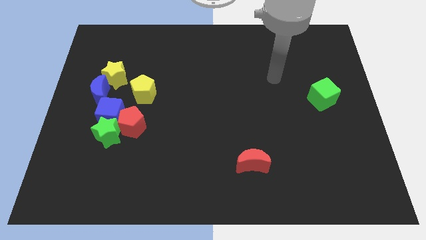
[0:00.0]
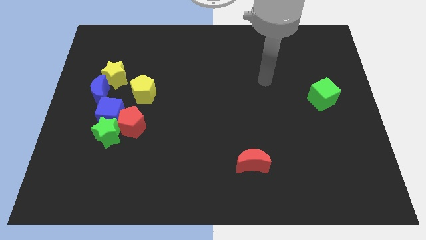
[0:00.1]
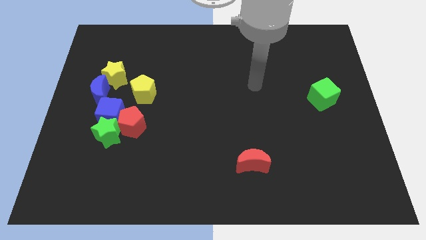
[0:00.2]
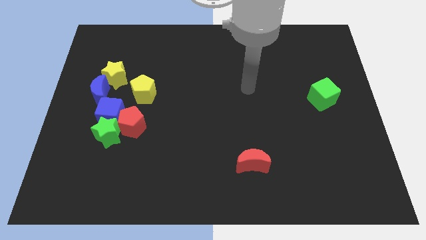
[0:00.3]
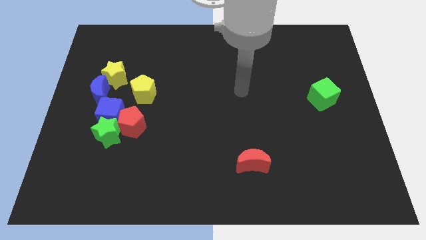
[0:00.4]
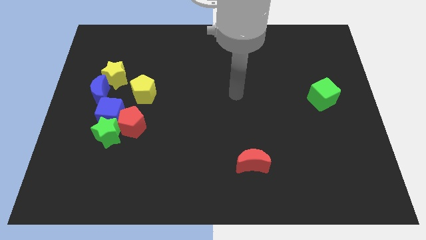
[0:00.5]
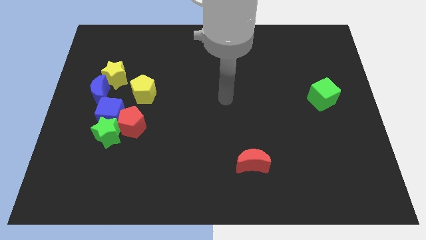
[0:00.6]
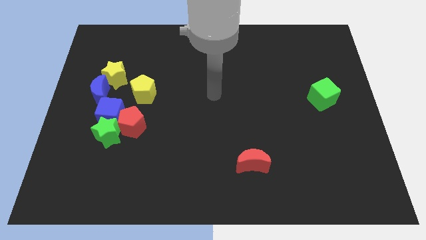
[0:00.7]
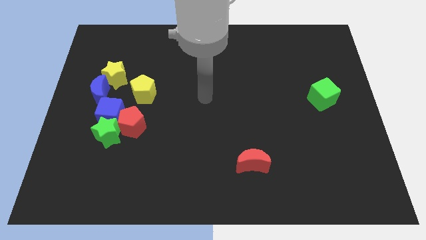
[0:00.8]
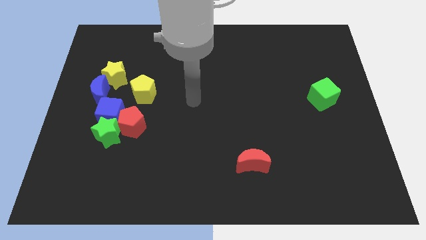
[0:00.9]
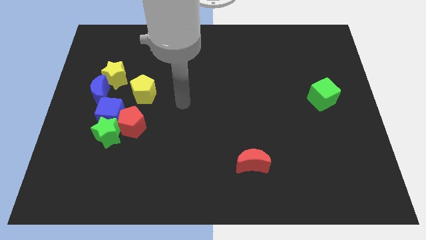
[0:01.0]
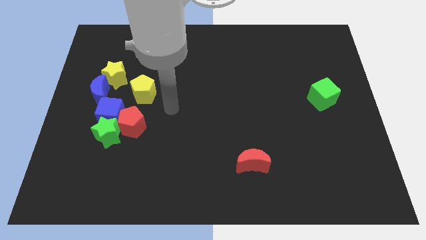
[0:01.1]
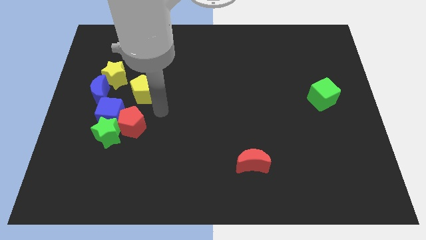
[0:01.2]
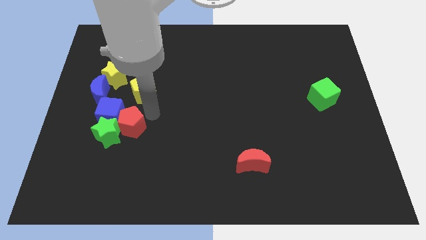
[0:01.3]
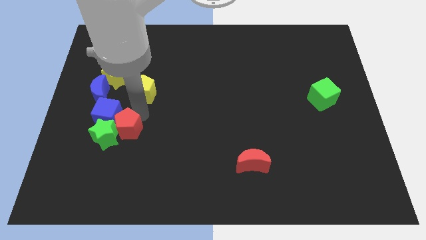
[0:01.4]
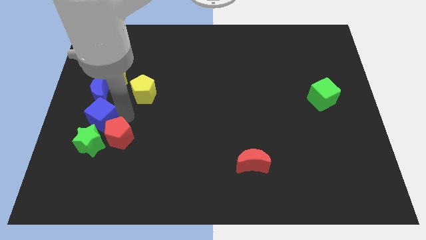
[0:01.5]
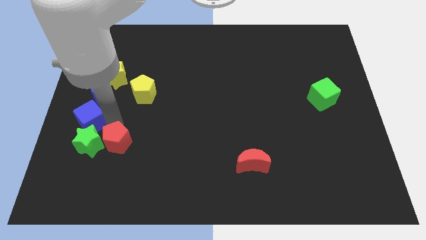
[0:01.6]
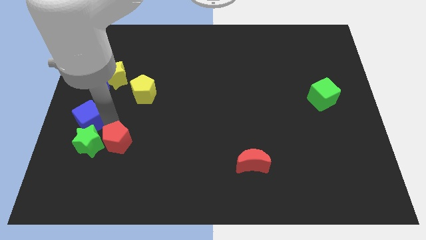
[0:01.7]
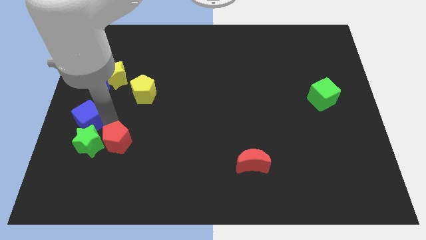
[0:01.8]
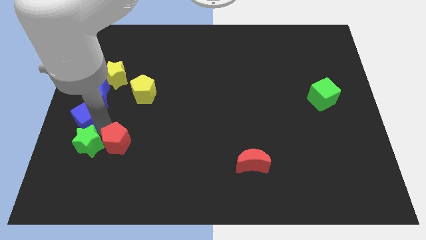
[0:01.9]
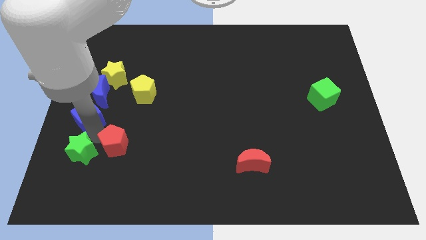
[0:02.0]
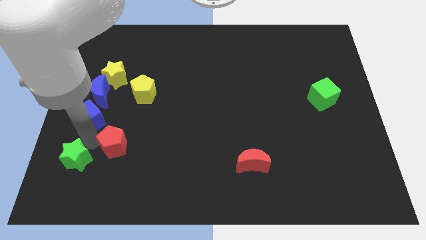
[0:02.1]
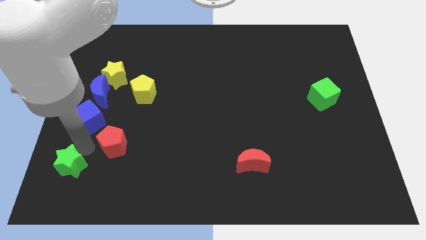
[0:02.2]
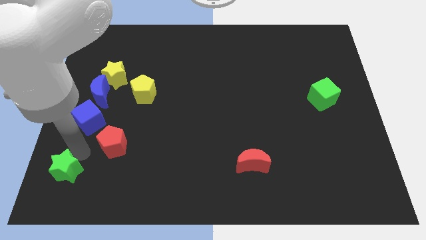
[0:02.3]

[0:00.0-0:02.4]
pull the green star apart from the blue cube and red pentagon

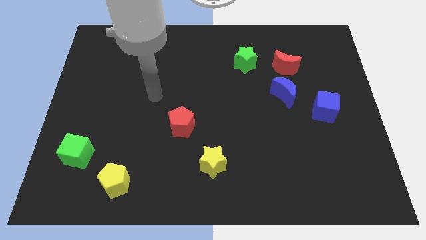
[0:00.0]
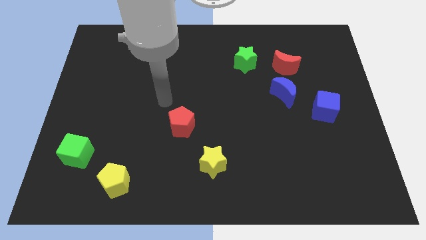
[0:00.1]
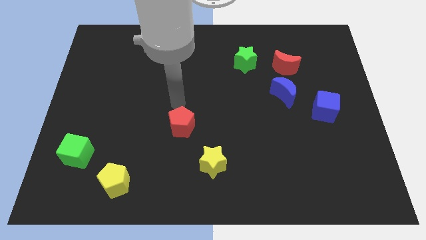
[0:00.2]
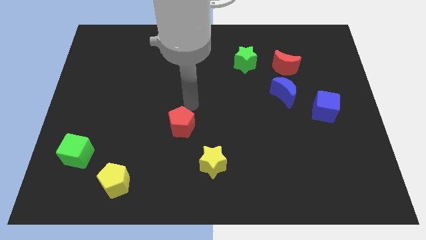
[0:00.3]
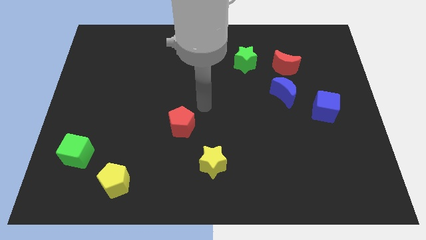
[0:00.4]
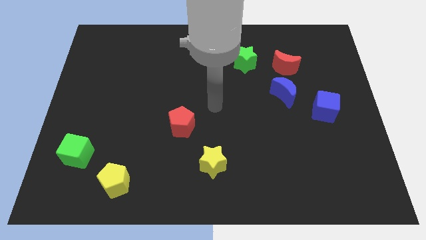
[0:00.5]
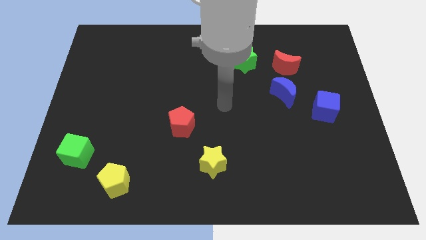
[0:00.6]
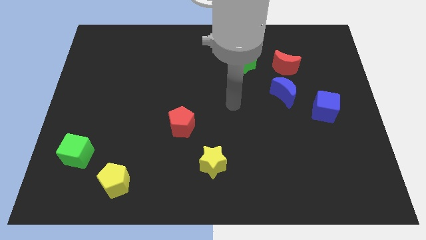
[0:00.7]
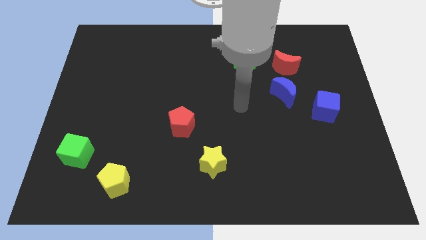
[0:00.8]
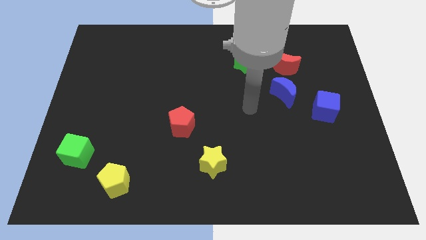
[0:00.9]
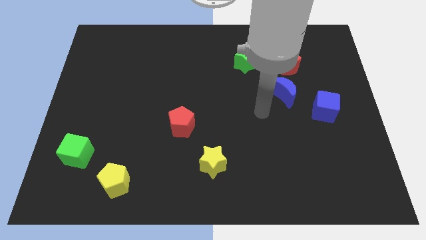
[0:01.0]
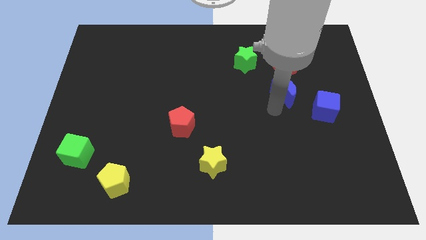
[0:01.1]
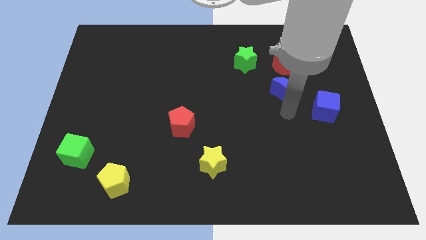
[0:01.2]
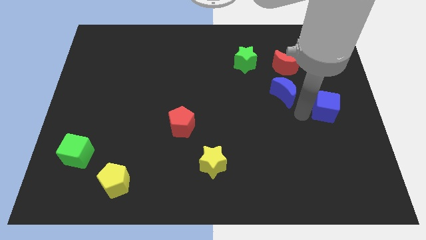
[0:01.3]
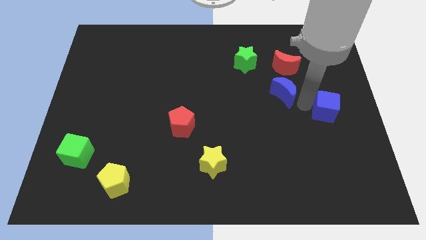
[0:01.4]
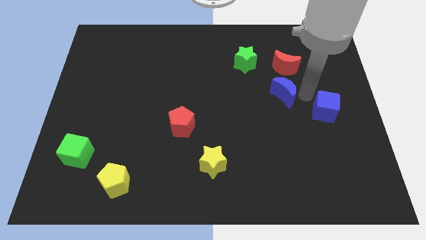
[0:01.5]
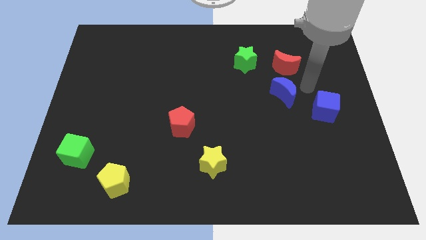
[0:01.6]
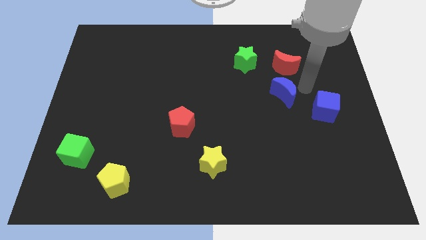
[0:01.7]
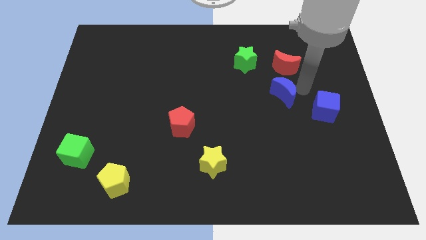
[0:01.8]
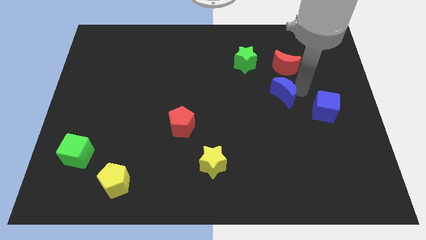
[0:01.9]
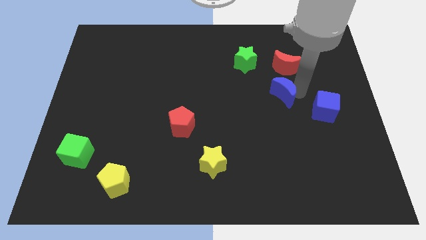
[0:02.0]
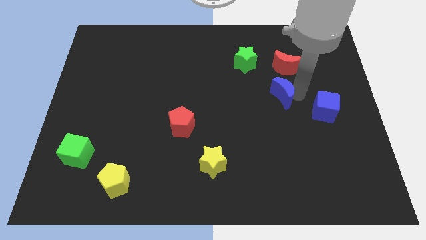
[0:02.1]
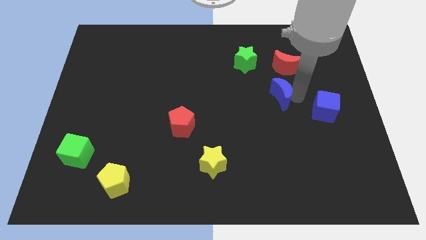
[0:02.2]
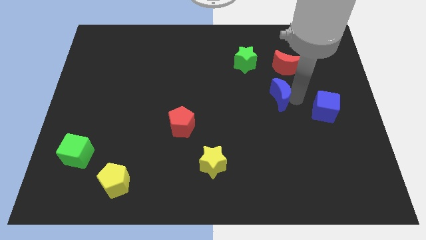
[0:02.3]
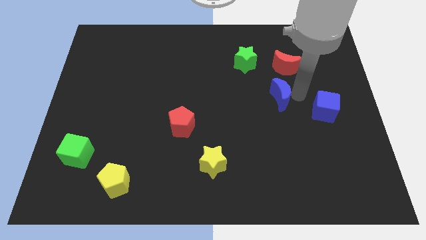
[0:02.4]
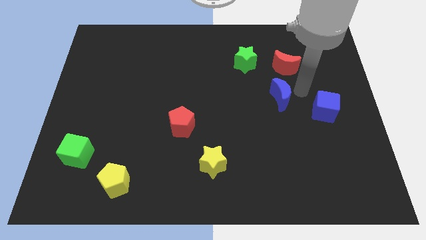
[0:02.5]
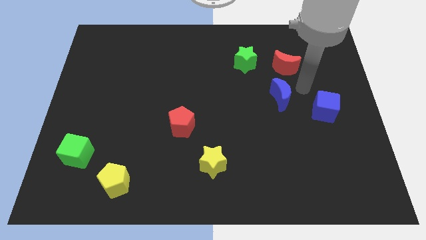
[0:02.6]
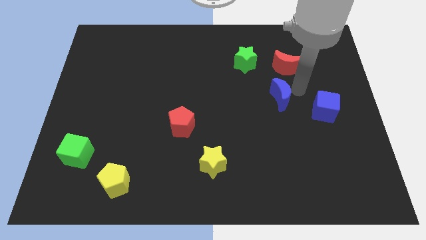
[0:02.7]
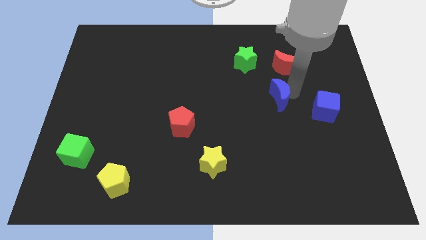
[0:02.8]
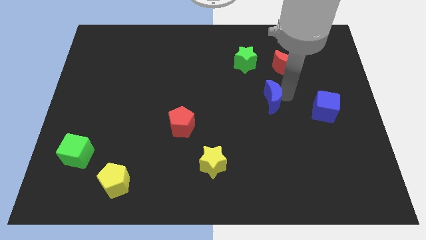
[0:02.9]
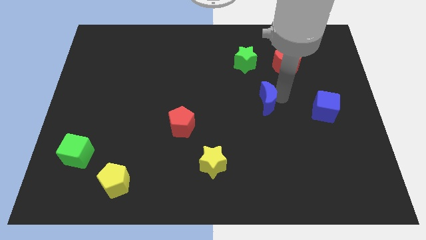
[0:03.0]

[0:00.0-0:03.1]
separate the blue moon from the red moon and blue cube

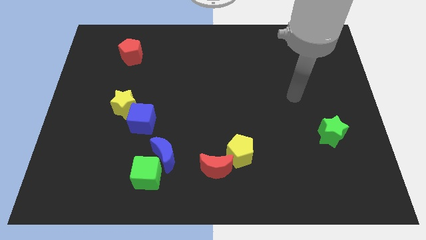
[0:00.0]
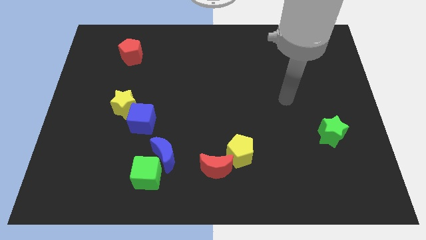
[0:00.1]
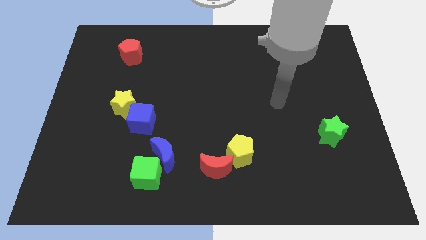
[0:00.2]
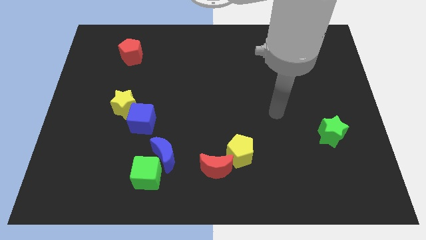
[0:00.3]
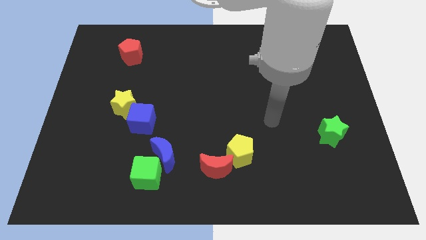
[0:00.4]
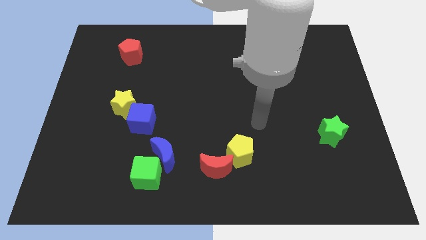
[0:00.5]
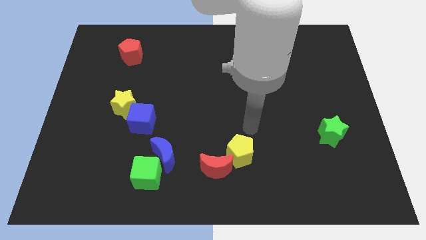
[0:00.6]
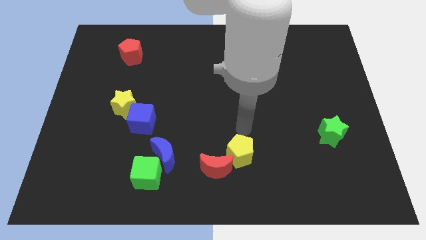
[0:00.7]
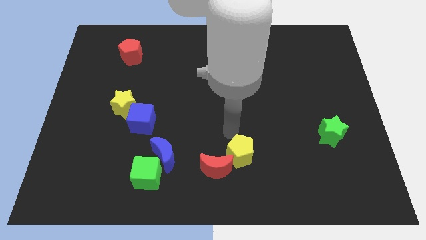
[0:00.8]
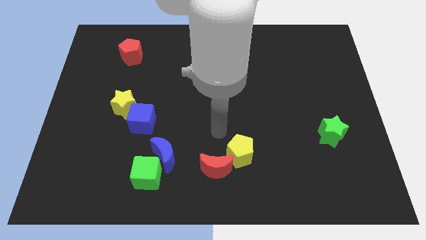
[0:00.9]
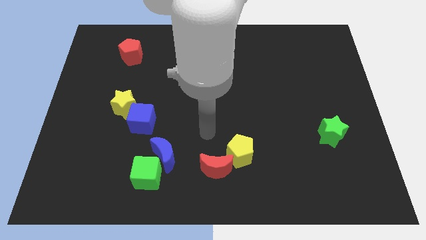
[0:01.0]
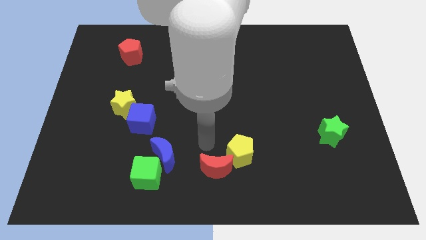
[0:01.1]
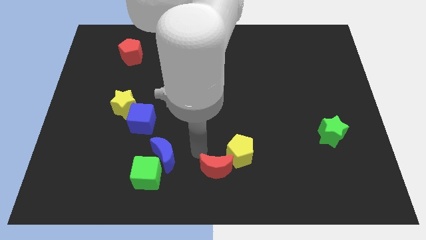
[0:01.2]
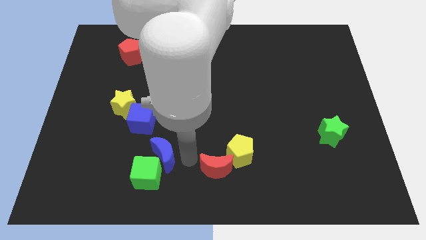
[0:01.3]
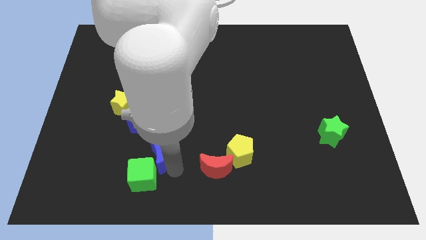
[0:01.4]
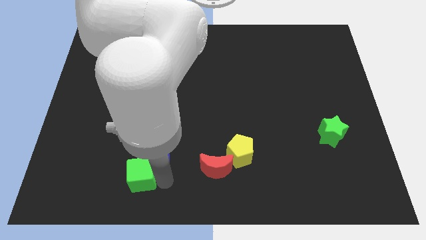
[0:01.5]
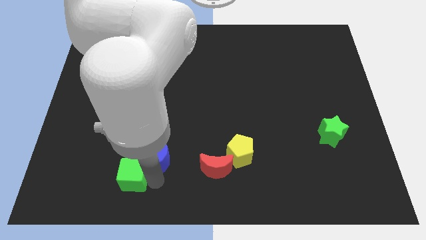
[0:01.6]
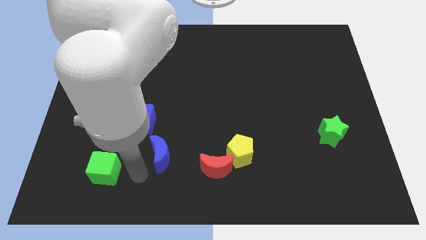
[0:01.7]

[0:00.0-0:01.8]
move the blue moon away from the green cube

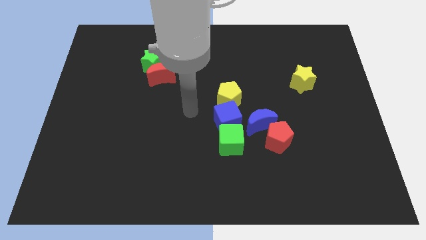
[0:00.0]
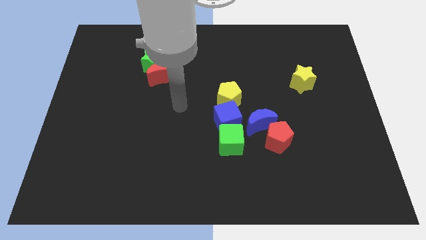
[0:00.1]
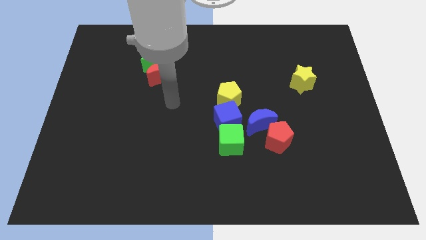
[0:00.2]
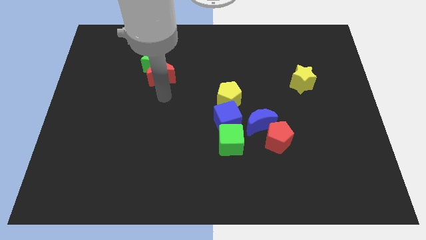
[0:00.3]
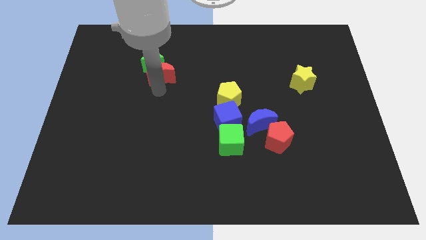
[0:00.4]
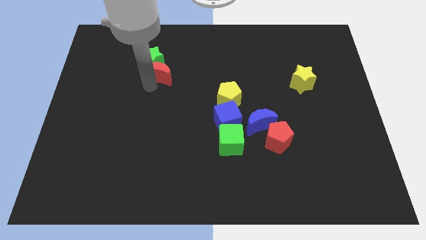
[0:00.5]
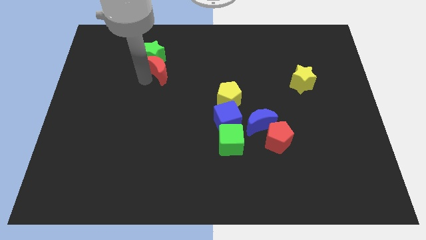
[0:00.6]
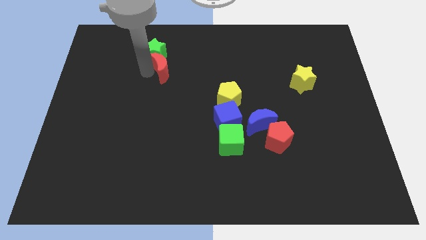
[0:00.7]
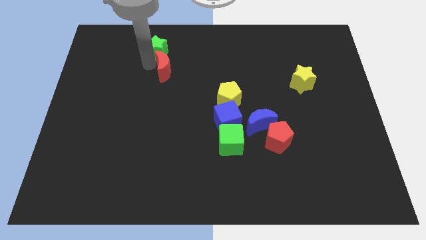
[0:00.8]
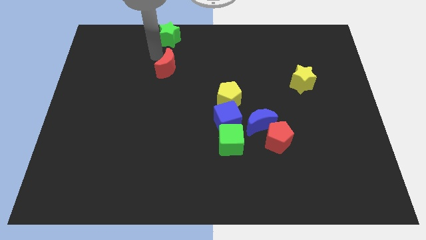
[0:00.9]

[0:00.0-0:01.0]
separate the red moon from the green star

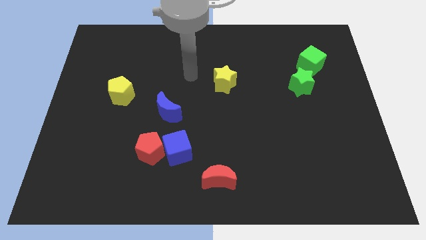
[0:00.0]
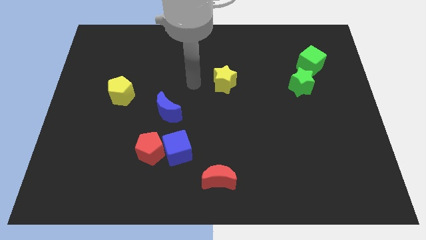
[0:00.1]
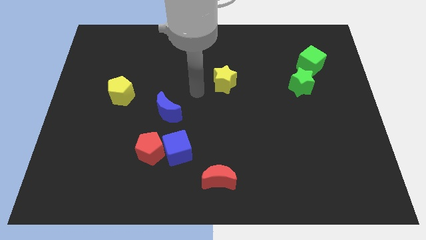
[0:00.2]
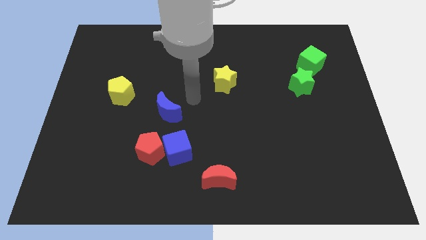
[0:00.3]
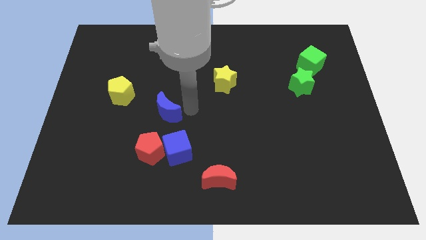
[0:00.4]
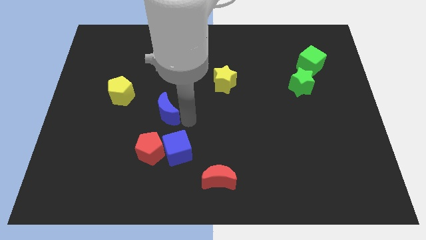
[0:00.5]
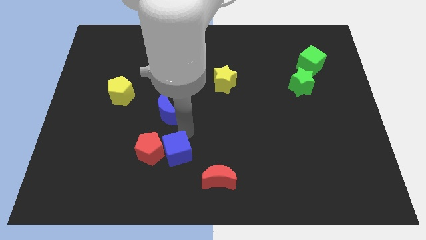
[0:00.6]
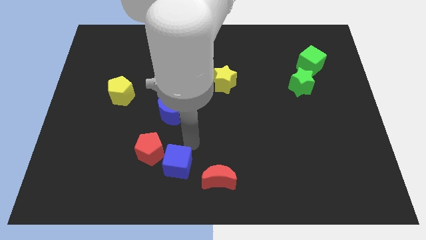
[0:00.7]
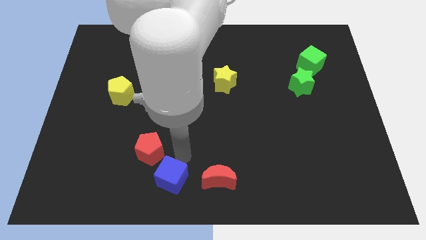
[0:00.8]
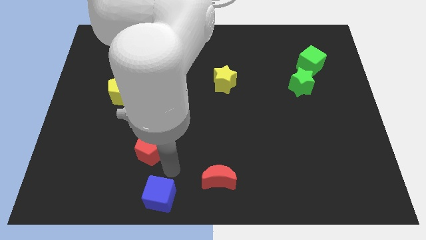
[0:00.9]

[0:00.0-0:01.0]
separate the red pentagon from the blue cube
